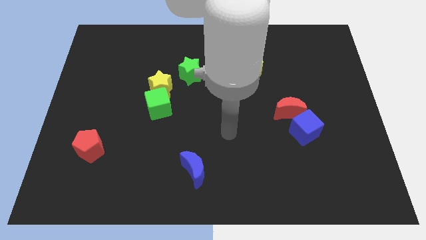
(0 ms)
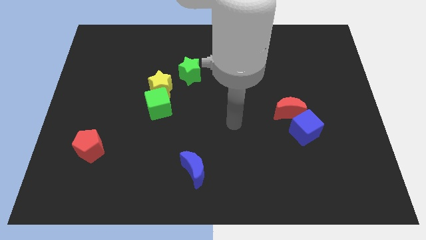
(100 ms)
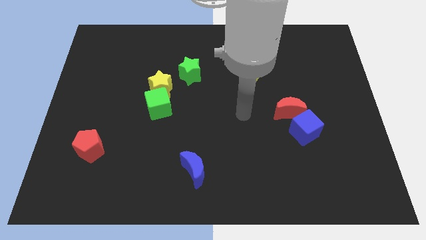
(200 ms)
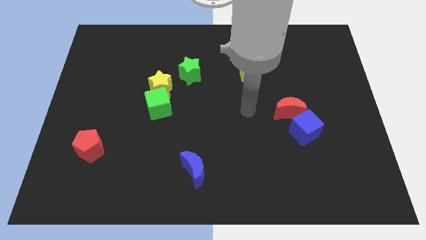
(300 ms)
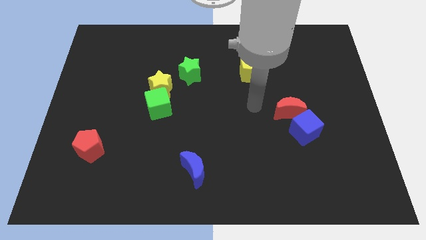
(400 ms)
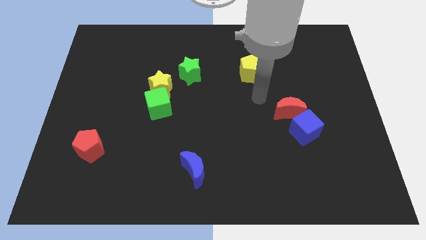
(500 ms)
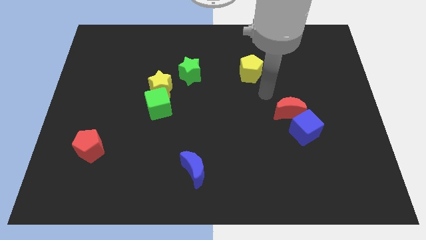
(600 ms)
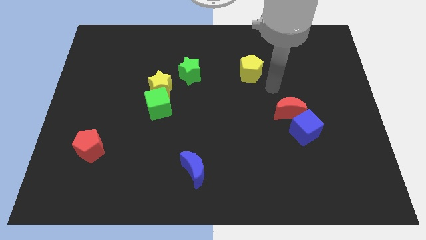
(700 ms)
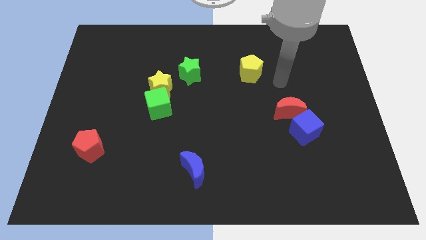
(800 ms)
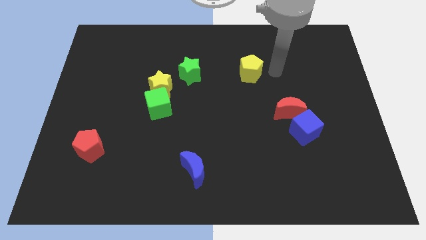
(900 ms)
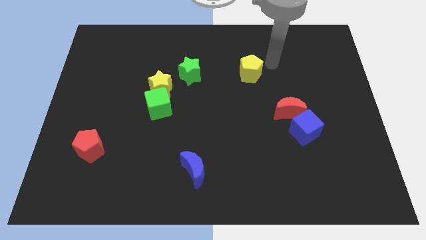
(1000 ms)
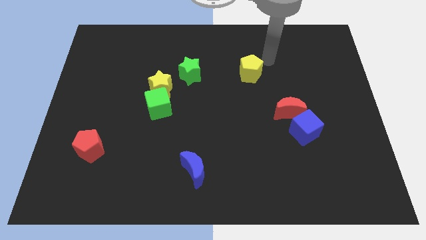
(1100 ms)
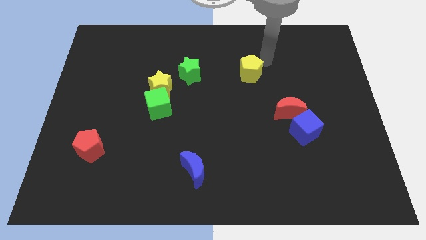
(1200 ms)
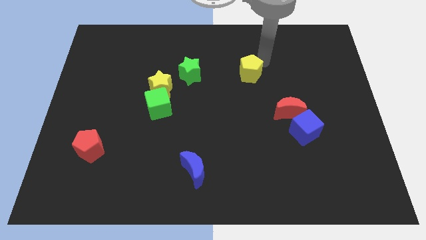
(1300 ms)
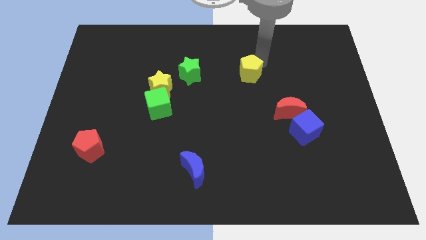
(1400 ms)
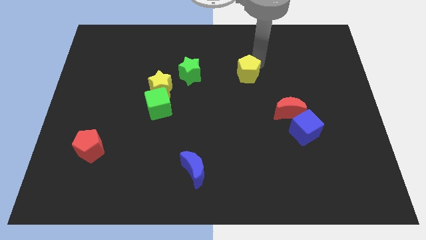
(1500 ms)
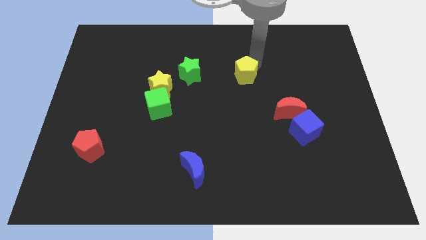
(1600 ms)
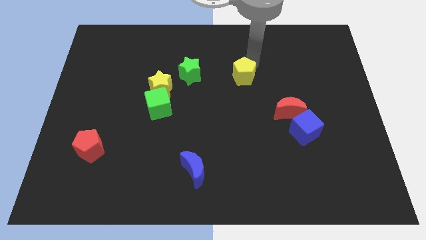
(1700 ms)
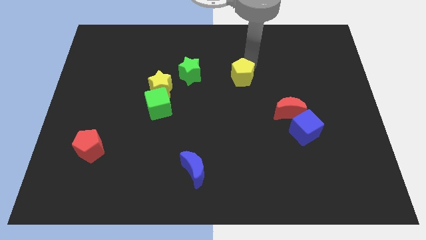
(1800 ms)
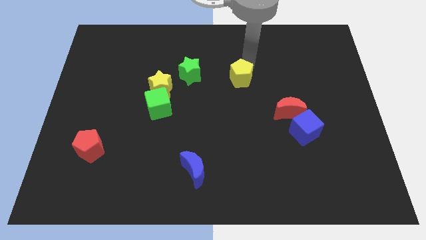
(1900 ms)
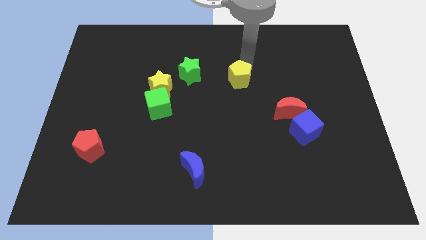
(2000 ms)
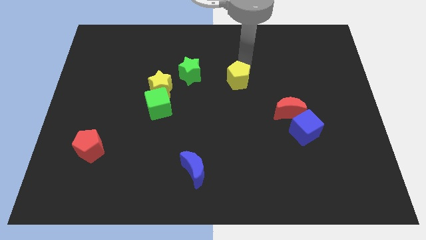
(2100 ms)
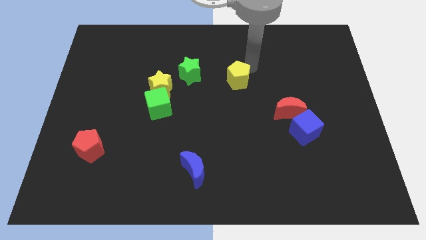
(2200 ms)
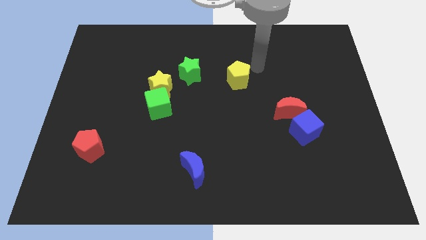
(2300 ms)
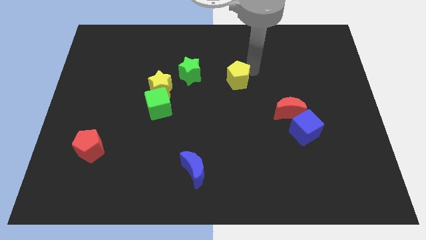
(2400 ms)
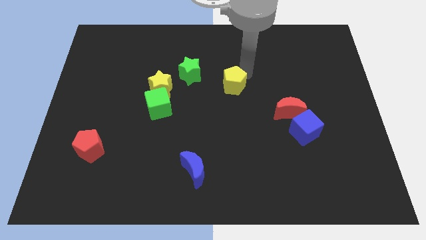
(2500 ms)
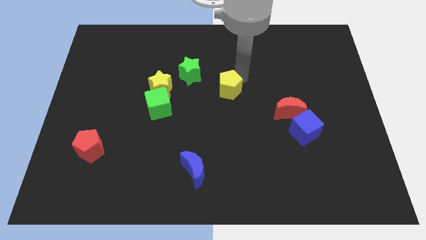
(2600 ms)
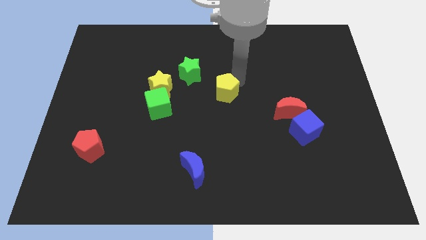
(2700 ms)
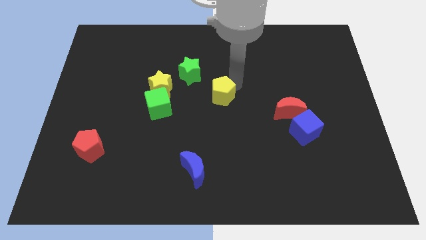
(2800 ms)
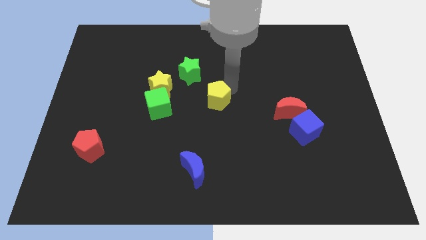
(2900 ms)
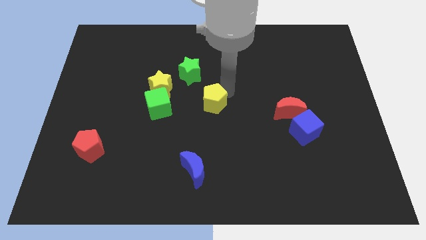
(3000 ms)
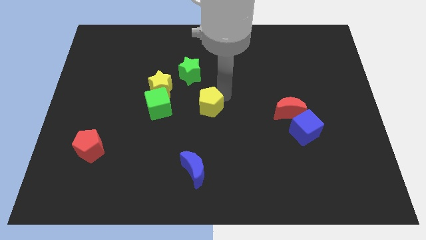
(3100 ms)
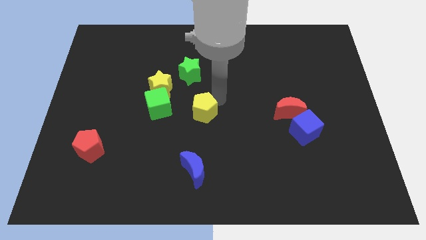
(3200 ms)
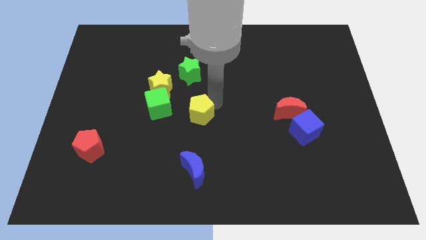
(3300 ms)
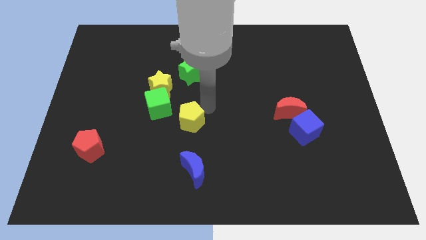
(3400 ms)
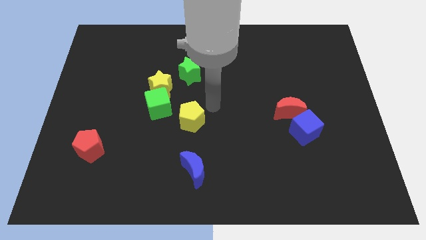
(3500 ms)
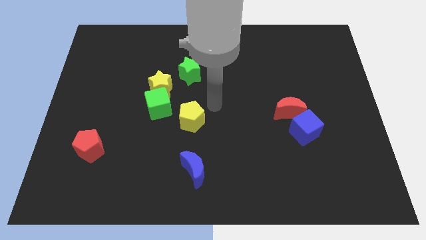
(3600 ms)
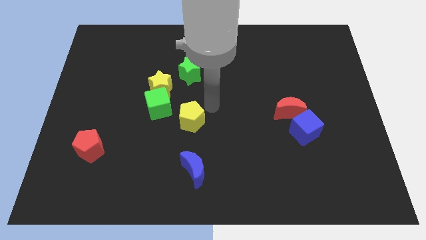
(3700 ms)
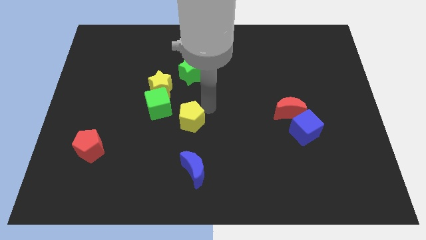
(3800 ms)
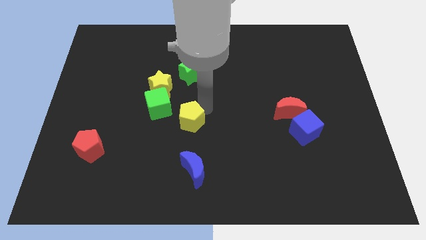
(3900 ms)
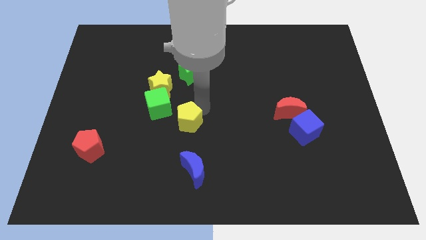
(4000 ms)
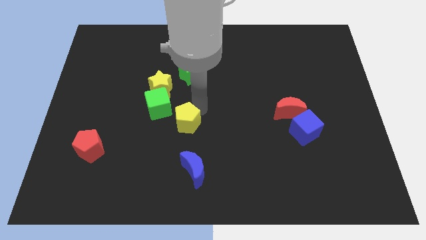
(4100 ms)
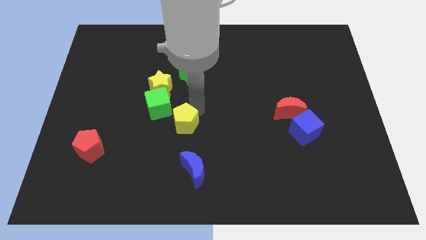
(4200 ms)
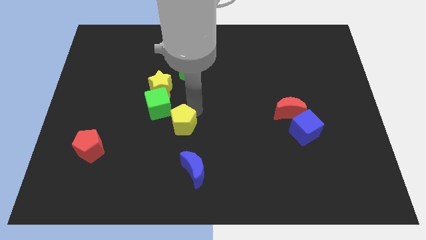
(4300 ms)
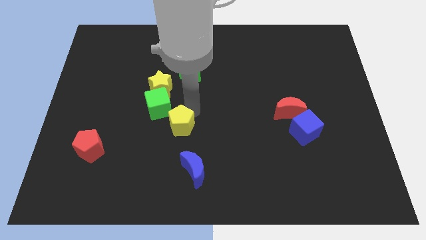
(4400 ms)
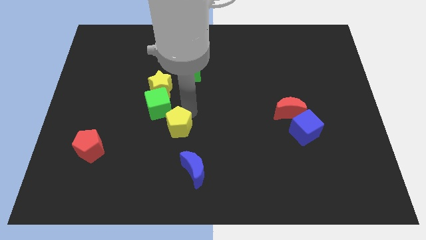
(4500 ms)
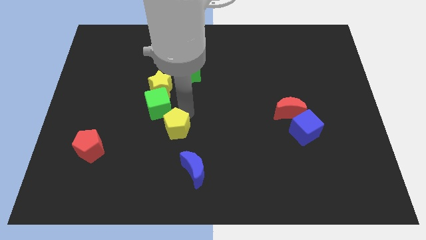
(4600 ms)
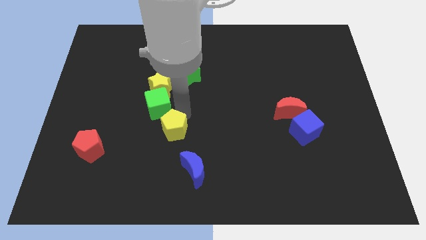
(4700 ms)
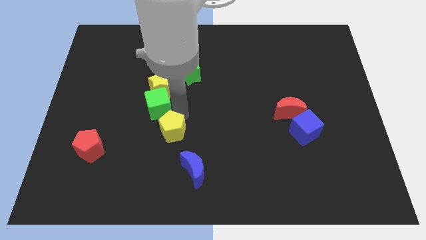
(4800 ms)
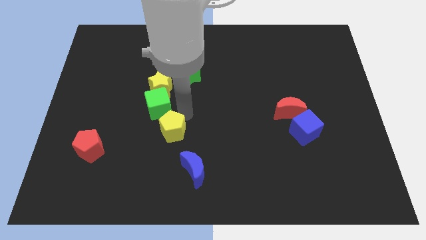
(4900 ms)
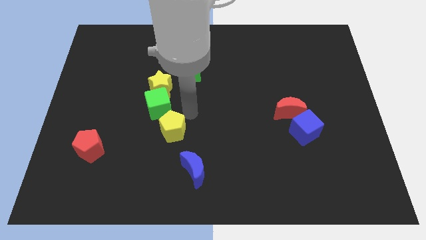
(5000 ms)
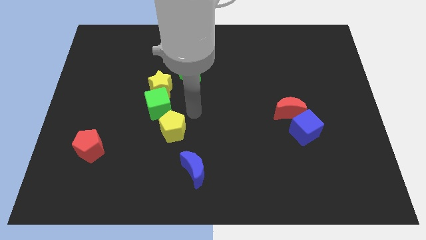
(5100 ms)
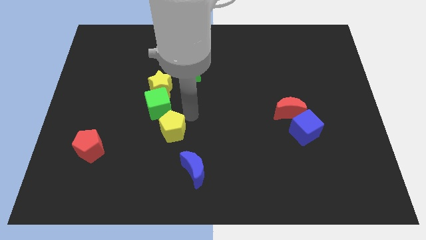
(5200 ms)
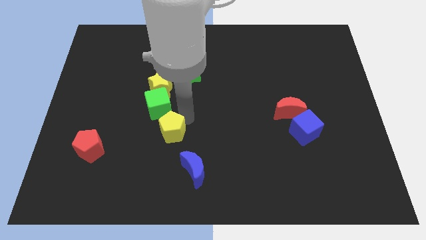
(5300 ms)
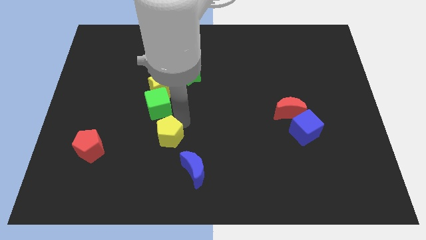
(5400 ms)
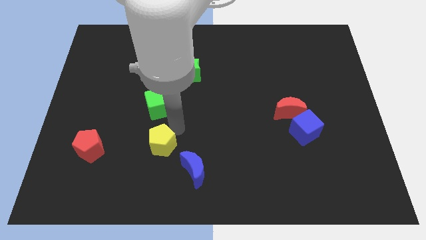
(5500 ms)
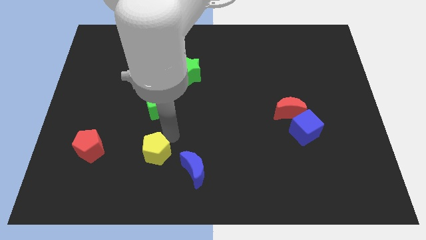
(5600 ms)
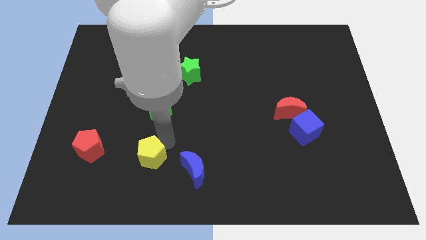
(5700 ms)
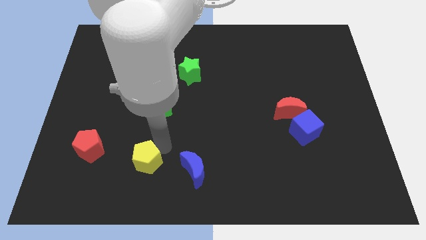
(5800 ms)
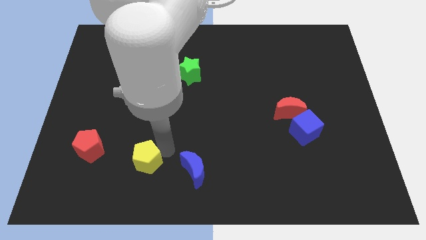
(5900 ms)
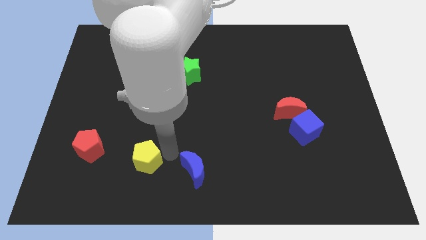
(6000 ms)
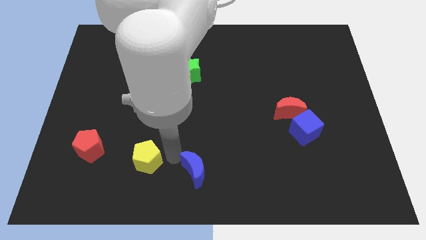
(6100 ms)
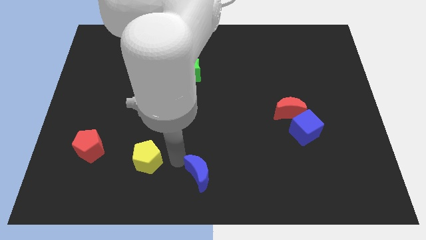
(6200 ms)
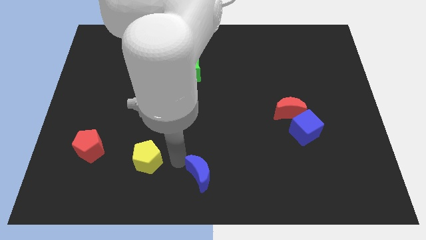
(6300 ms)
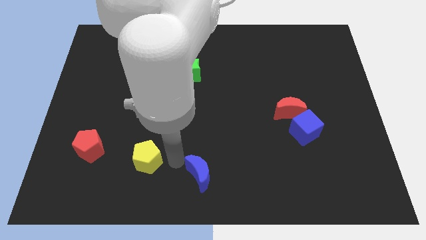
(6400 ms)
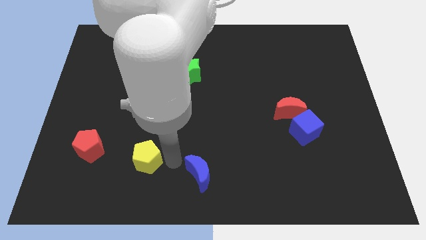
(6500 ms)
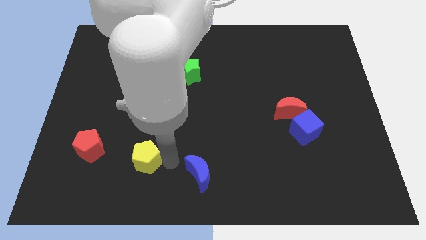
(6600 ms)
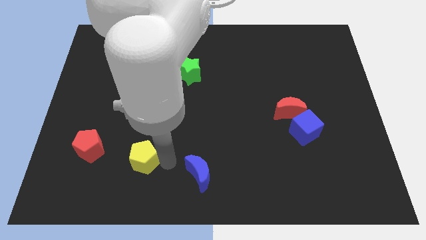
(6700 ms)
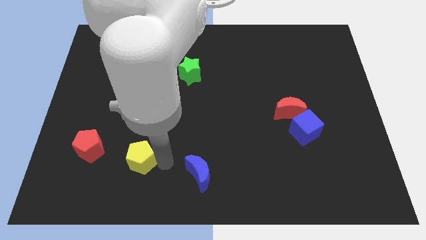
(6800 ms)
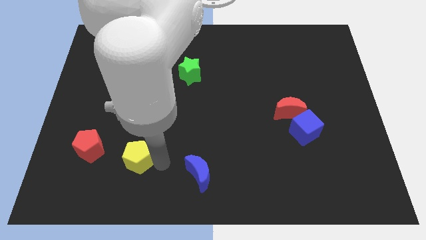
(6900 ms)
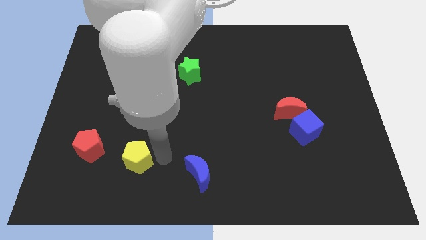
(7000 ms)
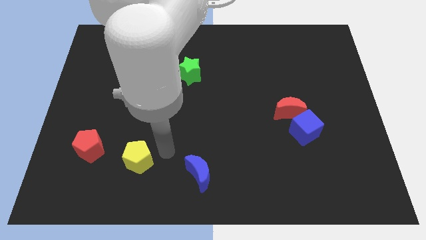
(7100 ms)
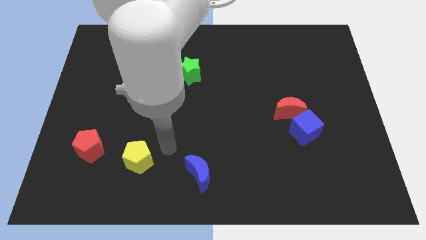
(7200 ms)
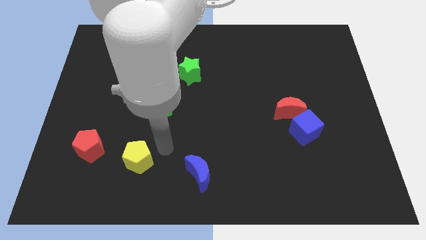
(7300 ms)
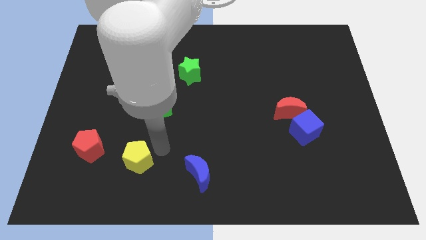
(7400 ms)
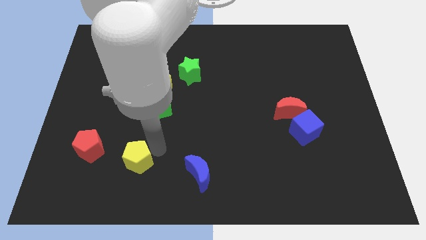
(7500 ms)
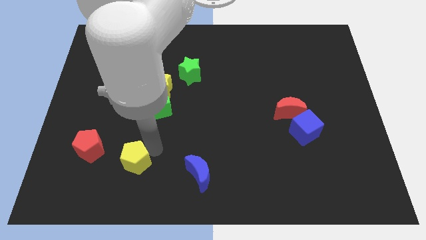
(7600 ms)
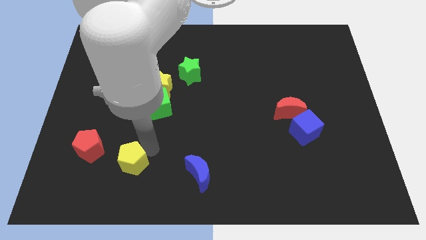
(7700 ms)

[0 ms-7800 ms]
move the yellow pentagon to the bottom right side of the red pentagon
